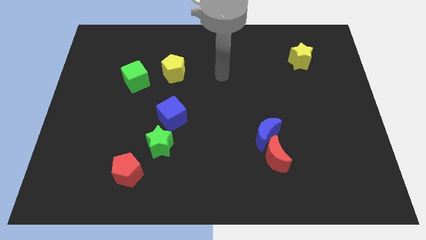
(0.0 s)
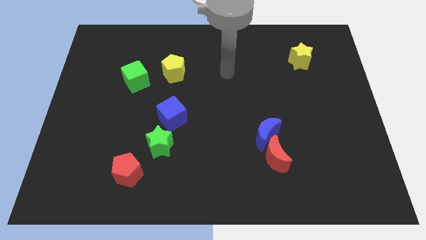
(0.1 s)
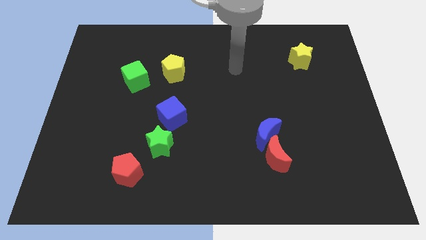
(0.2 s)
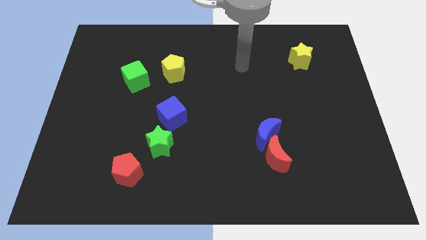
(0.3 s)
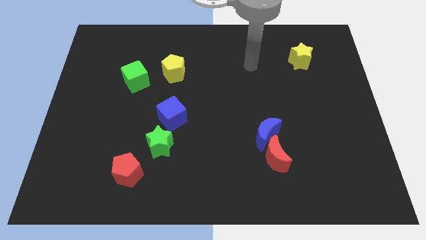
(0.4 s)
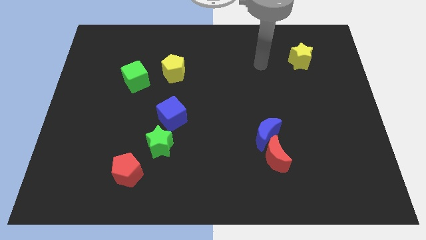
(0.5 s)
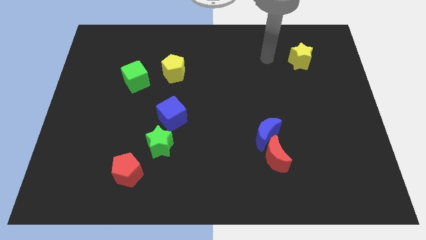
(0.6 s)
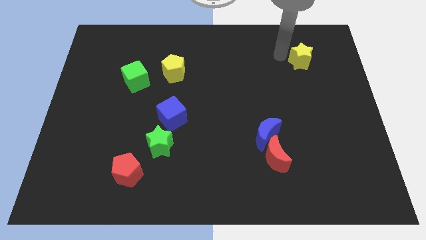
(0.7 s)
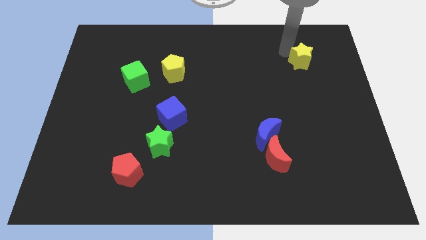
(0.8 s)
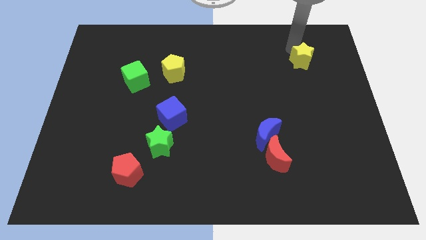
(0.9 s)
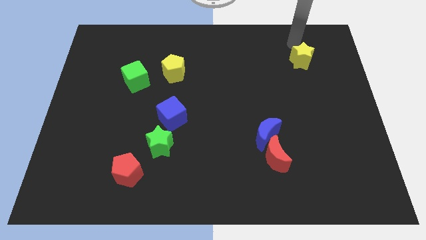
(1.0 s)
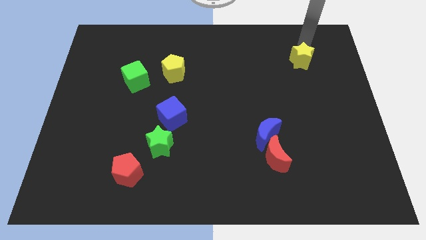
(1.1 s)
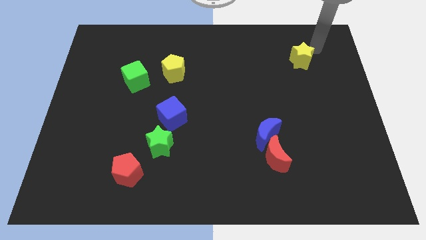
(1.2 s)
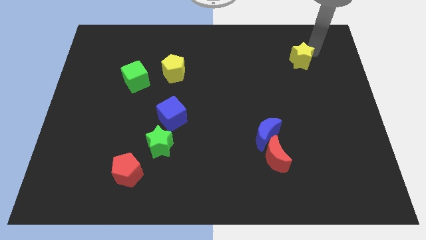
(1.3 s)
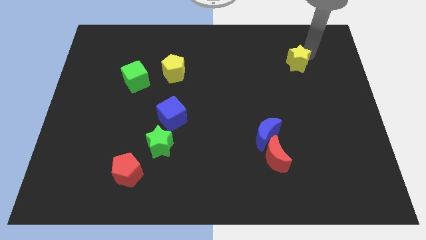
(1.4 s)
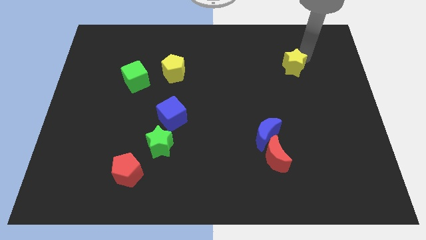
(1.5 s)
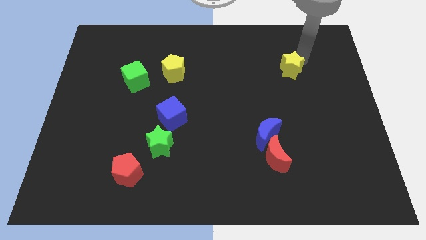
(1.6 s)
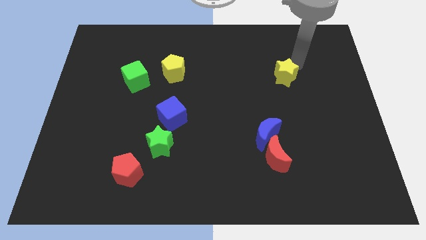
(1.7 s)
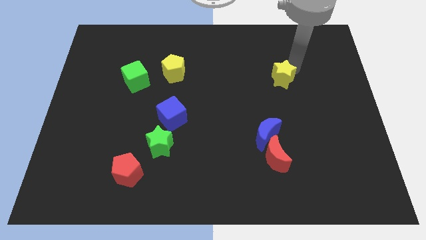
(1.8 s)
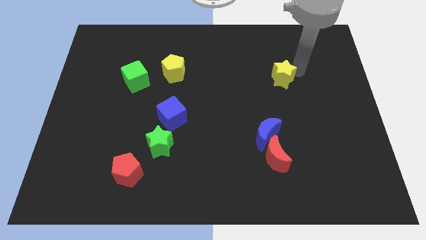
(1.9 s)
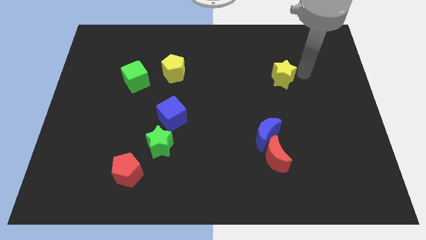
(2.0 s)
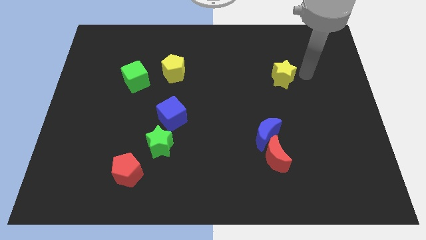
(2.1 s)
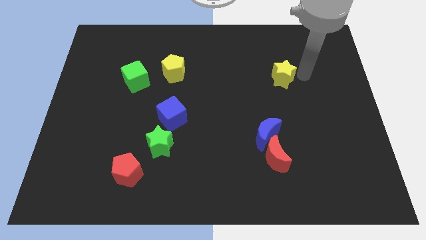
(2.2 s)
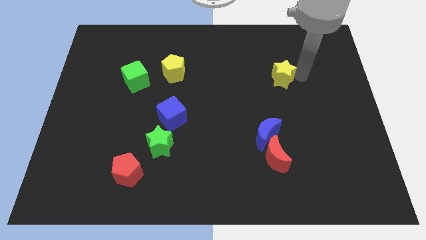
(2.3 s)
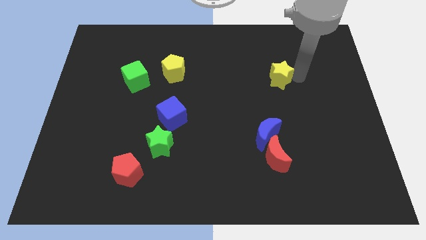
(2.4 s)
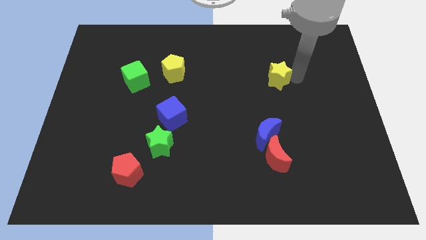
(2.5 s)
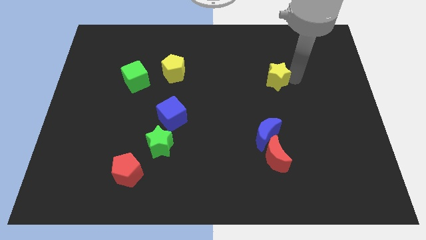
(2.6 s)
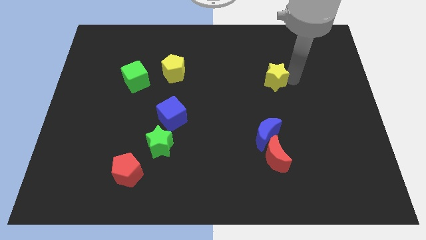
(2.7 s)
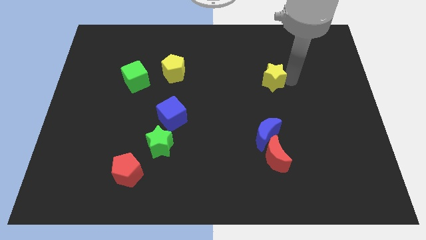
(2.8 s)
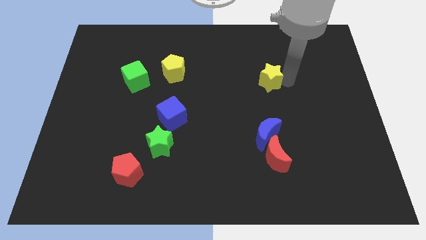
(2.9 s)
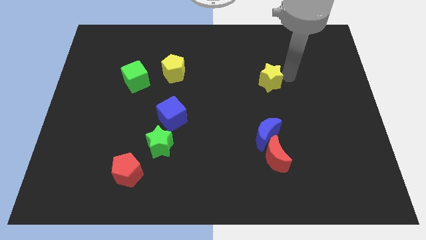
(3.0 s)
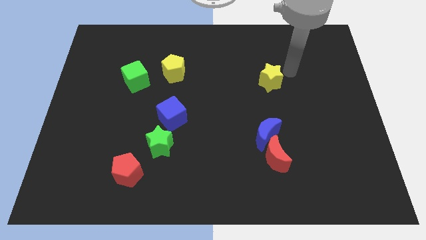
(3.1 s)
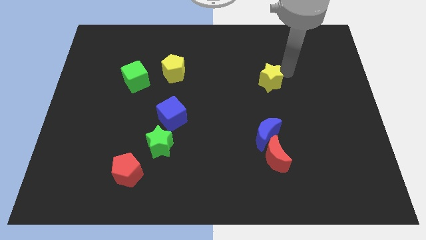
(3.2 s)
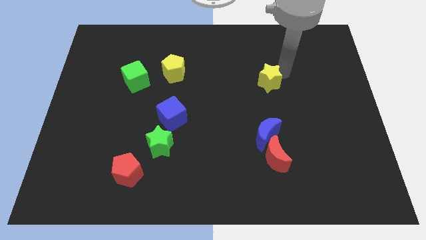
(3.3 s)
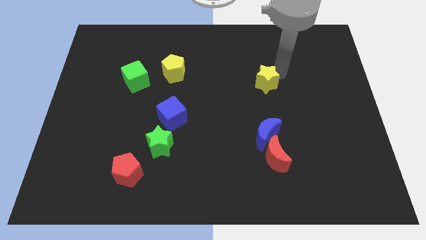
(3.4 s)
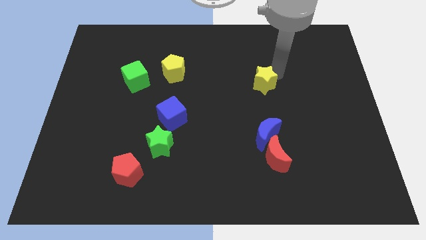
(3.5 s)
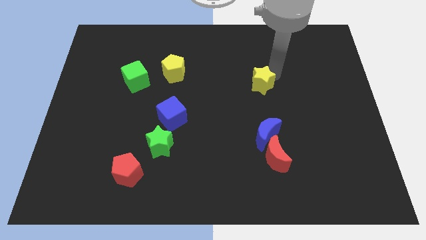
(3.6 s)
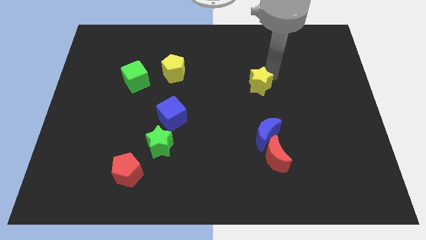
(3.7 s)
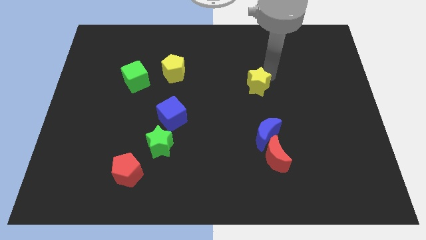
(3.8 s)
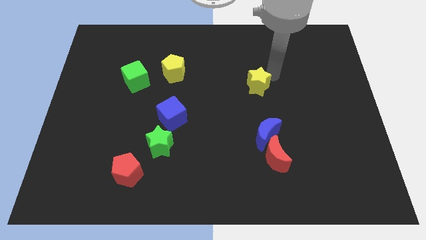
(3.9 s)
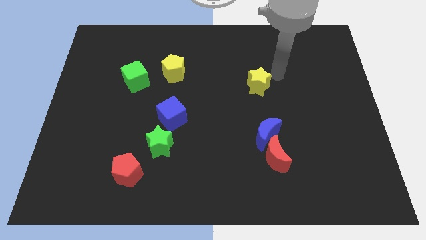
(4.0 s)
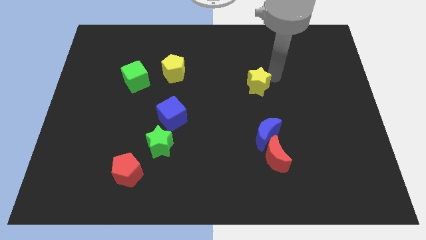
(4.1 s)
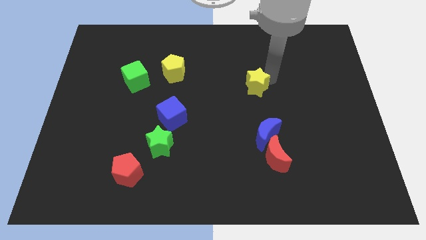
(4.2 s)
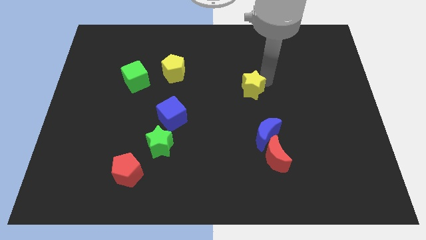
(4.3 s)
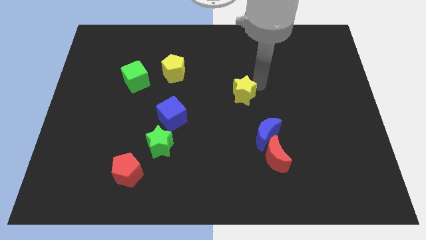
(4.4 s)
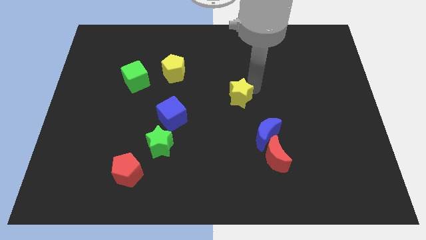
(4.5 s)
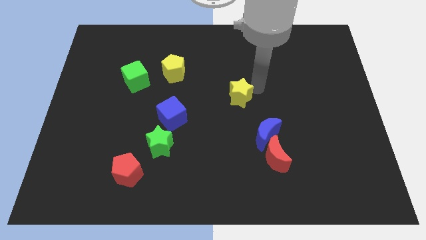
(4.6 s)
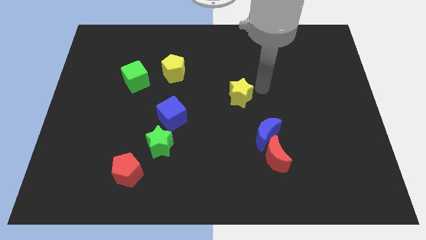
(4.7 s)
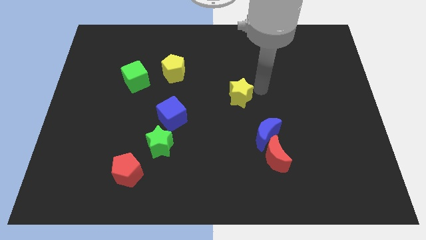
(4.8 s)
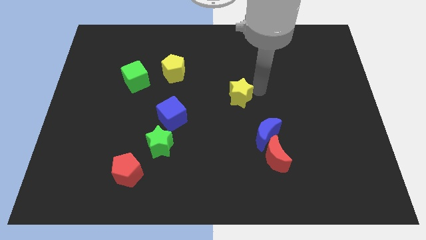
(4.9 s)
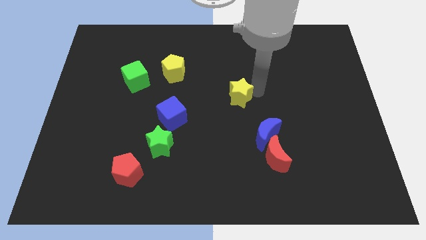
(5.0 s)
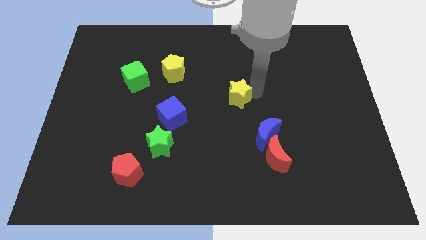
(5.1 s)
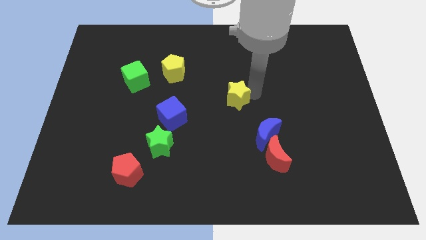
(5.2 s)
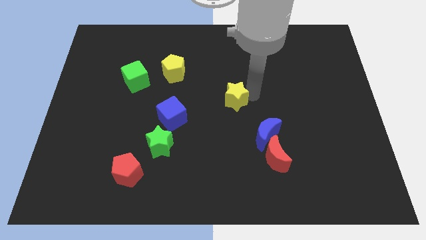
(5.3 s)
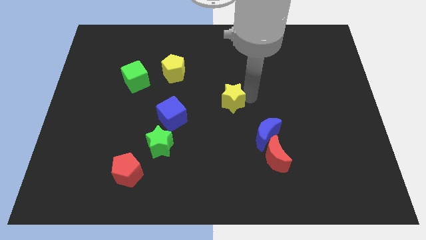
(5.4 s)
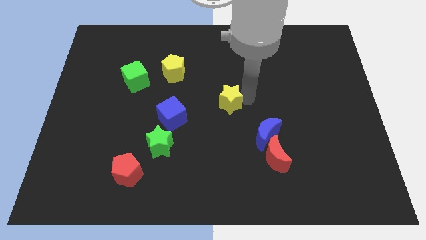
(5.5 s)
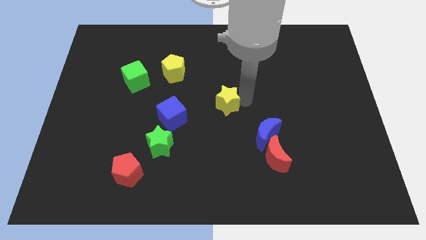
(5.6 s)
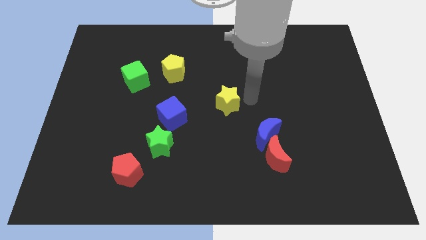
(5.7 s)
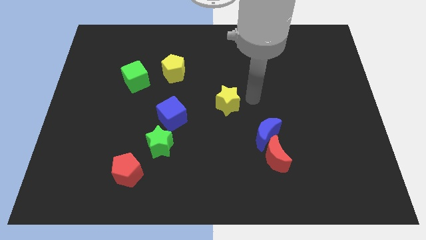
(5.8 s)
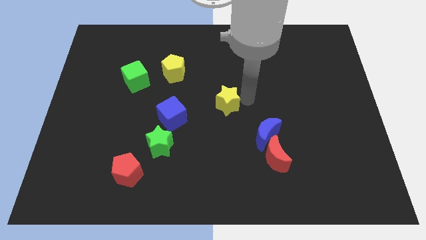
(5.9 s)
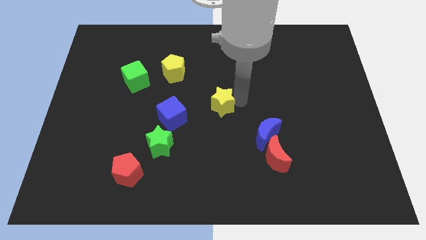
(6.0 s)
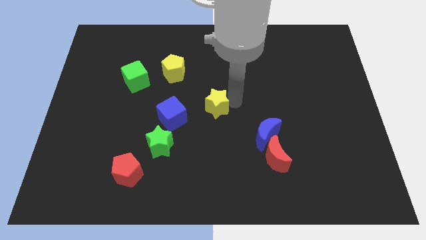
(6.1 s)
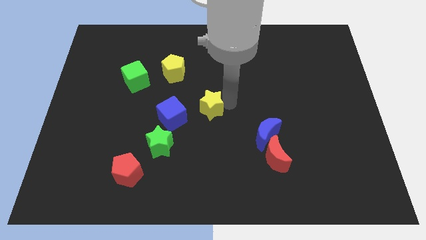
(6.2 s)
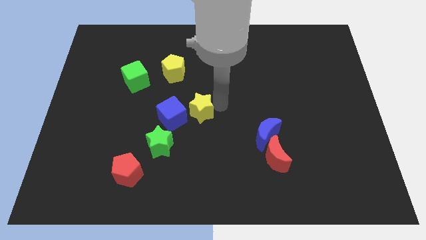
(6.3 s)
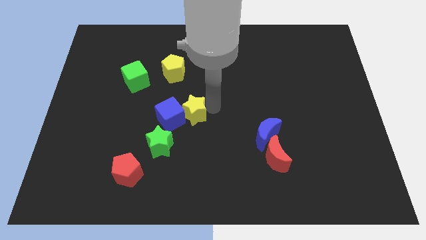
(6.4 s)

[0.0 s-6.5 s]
put the yellow star to the blue cube

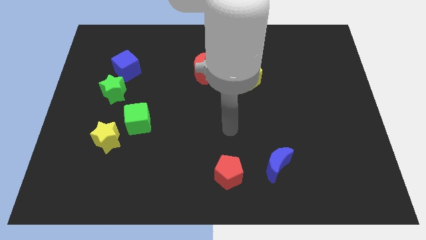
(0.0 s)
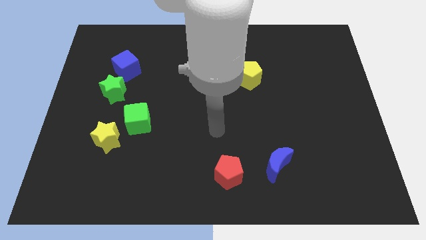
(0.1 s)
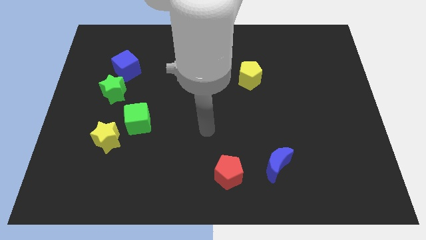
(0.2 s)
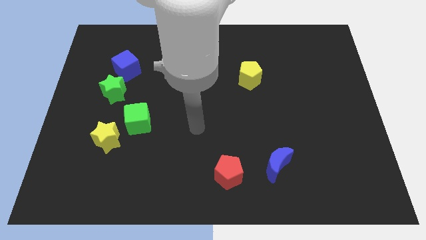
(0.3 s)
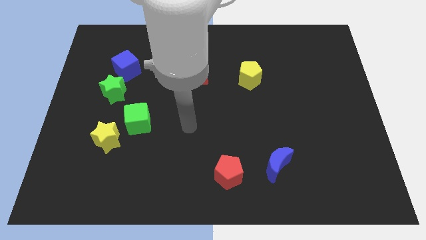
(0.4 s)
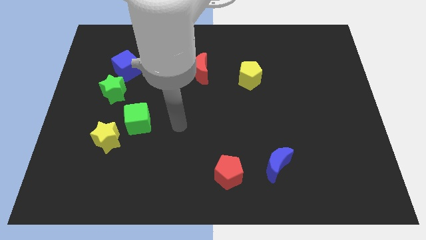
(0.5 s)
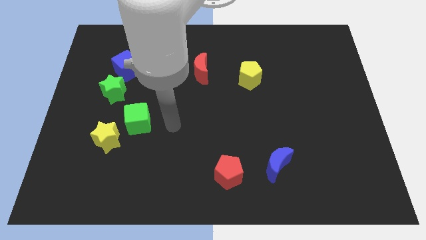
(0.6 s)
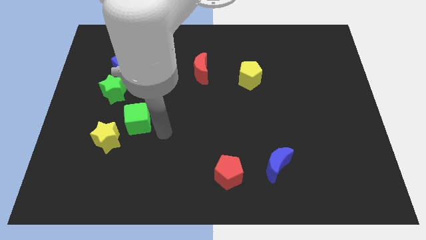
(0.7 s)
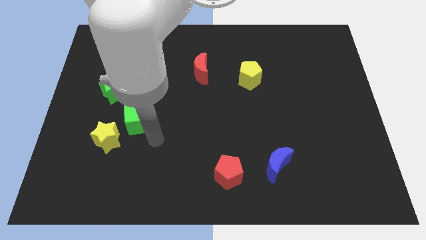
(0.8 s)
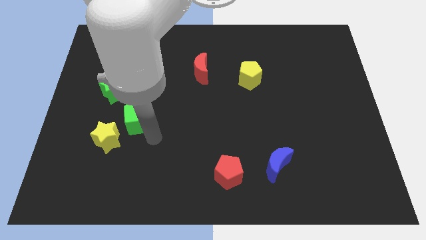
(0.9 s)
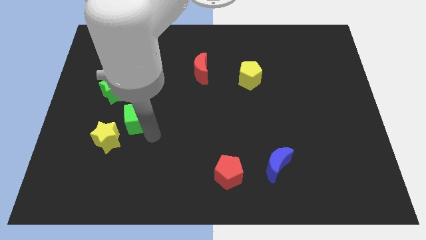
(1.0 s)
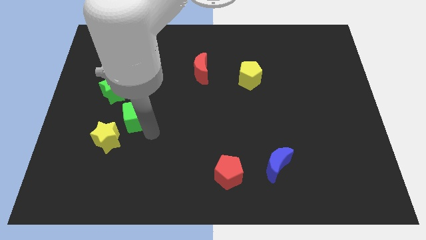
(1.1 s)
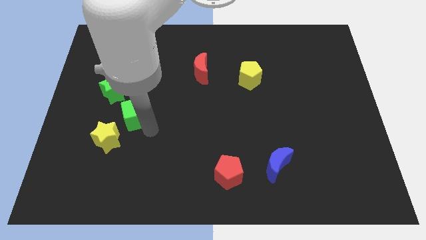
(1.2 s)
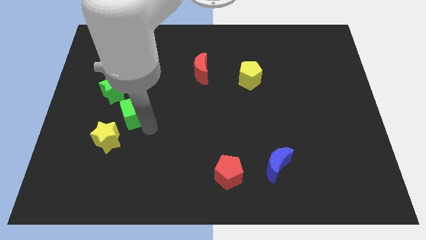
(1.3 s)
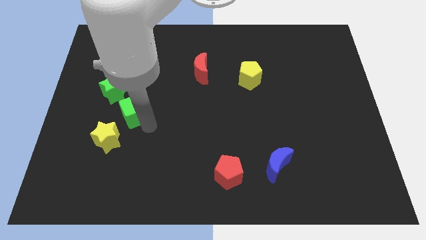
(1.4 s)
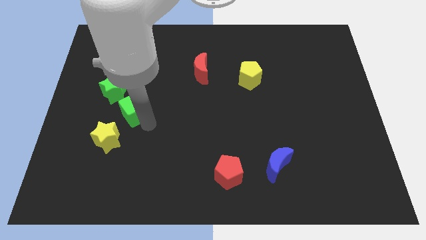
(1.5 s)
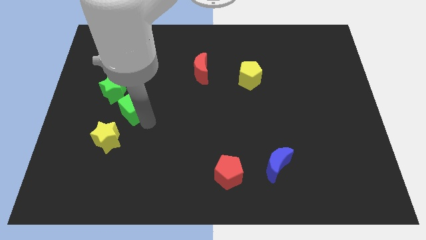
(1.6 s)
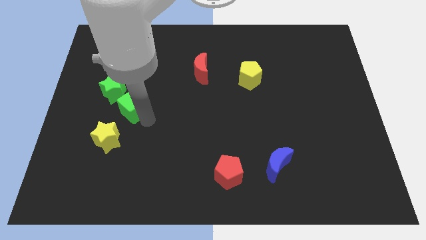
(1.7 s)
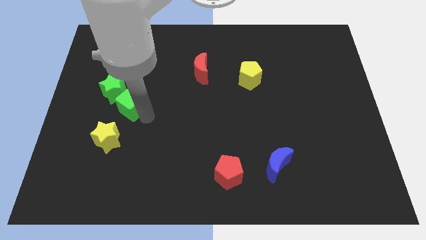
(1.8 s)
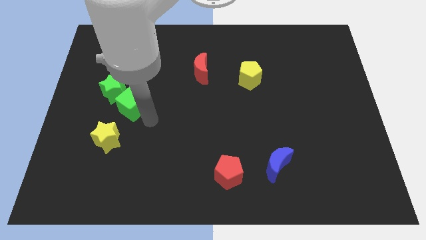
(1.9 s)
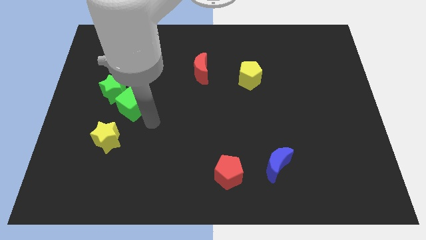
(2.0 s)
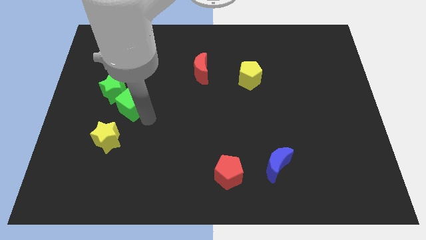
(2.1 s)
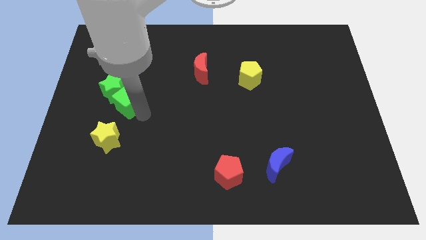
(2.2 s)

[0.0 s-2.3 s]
slide the green cube towards the green star
